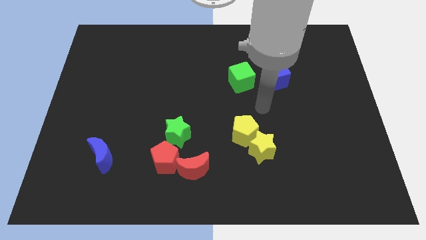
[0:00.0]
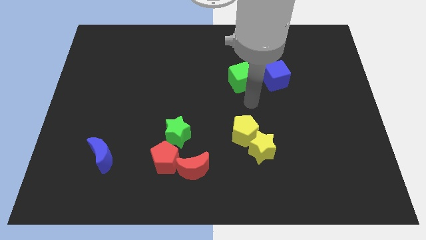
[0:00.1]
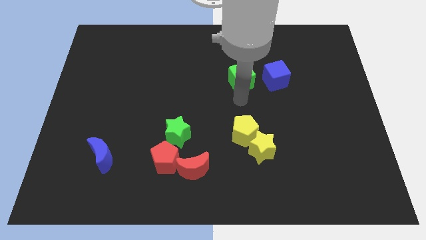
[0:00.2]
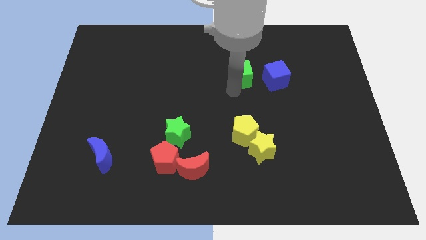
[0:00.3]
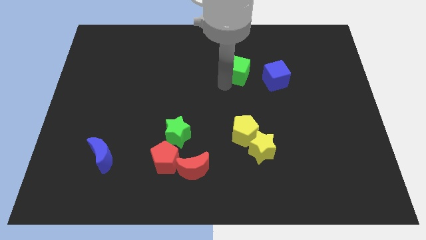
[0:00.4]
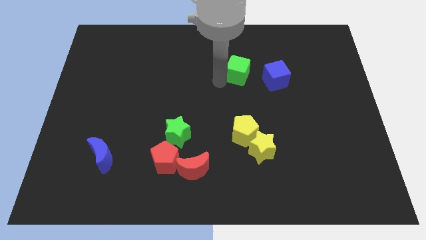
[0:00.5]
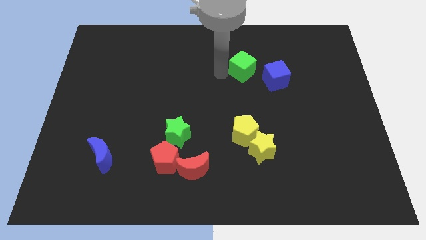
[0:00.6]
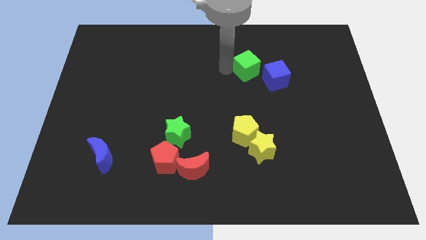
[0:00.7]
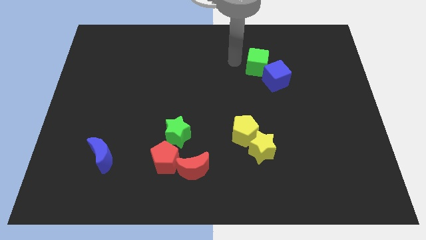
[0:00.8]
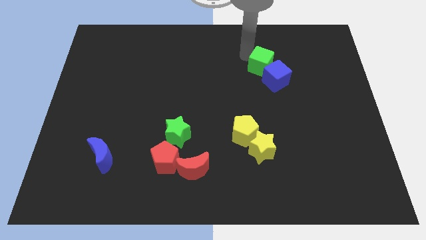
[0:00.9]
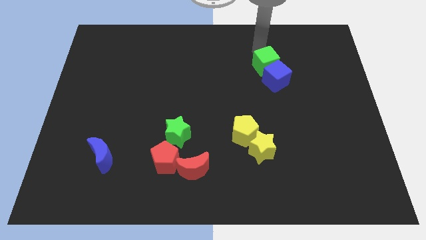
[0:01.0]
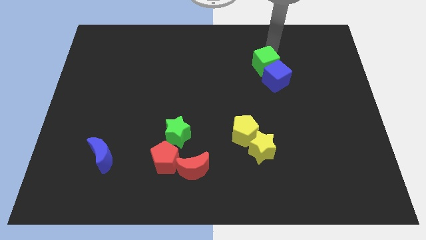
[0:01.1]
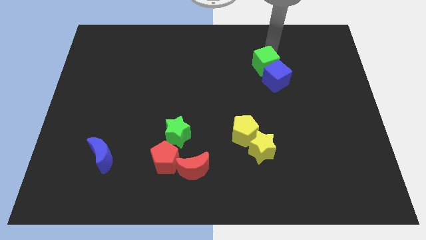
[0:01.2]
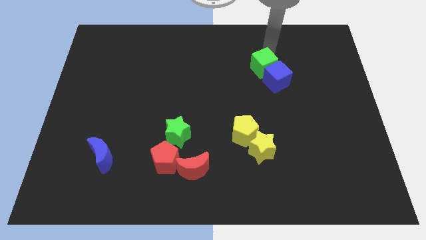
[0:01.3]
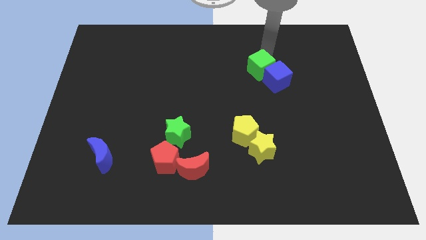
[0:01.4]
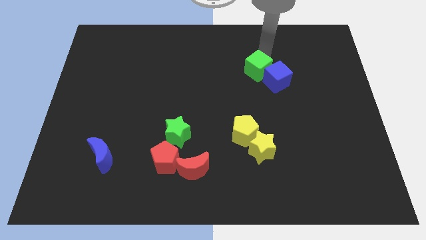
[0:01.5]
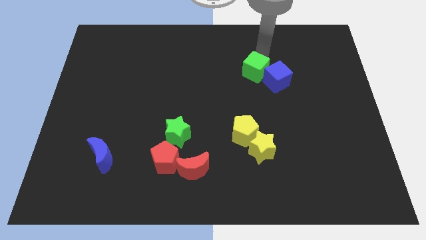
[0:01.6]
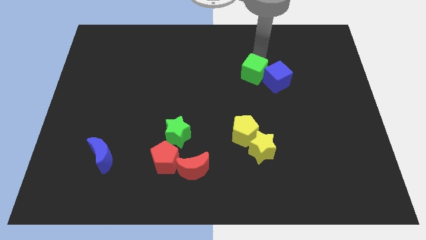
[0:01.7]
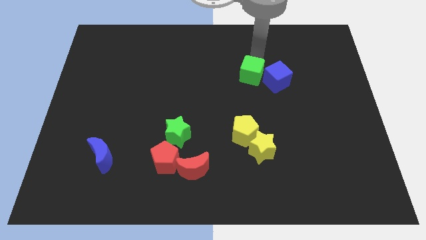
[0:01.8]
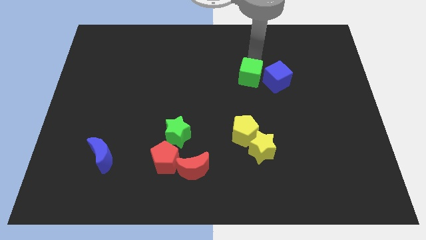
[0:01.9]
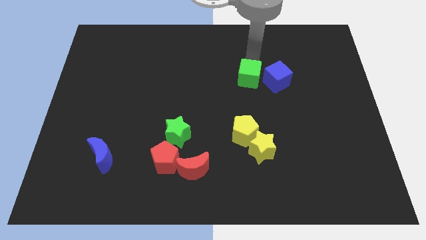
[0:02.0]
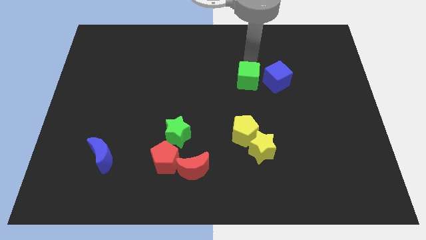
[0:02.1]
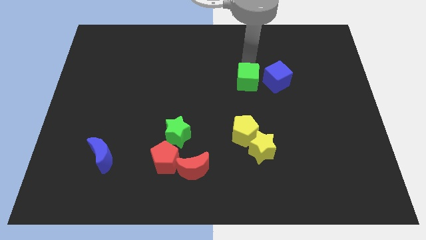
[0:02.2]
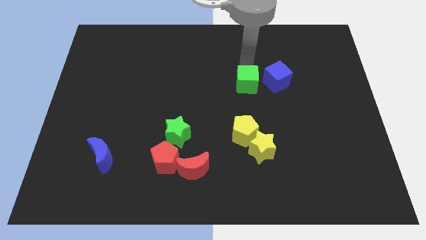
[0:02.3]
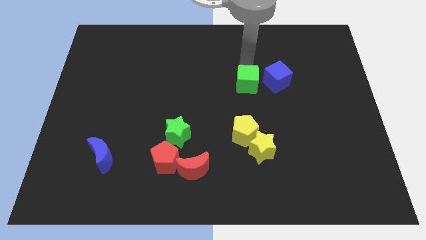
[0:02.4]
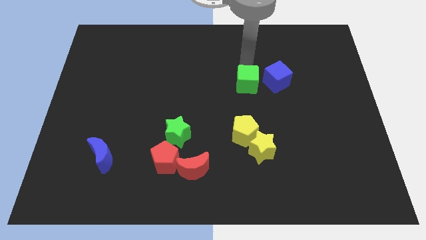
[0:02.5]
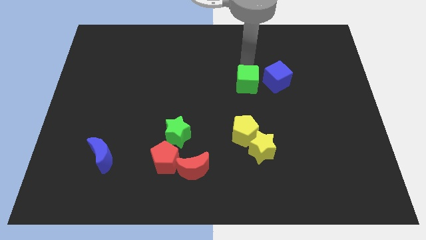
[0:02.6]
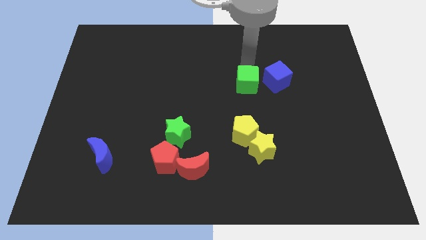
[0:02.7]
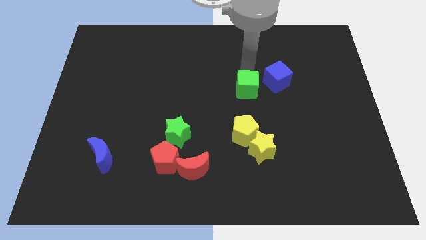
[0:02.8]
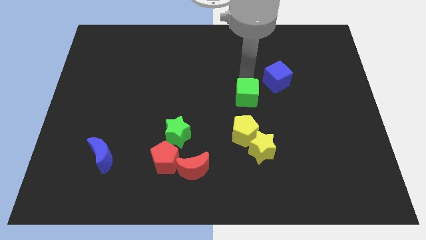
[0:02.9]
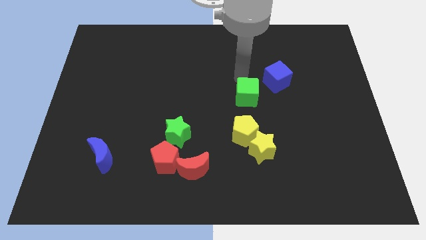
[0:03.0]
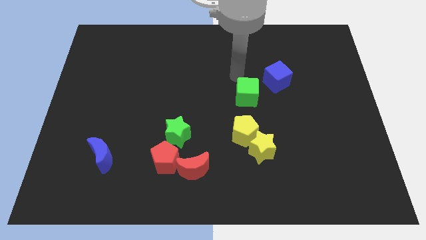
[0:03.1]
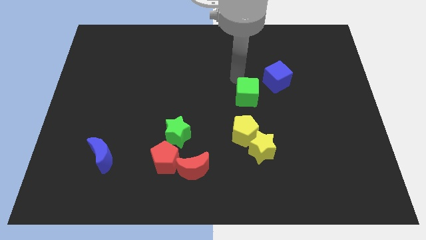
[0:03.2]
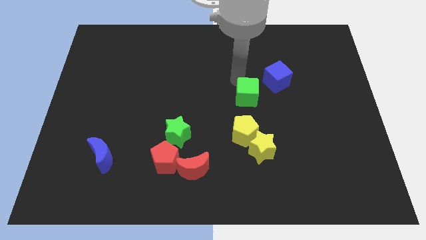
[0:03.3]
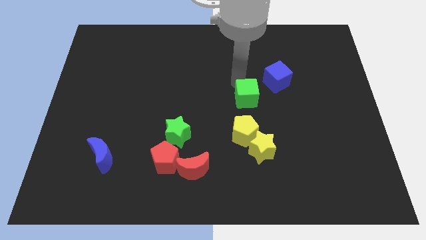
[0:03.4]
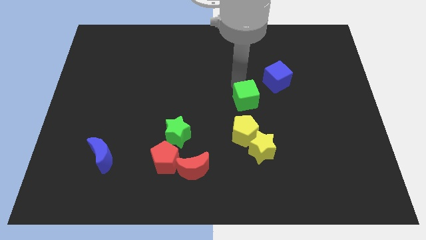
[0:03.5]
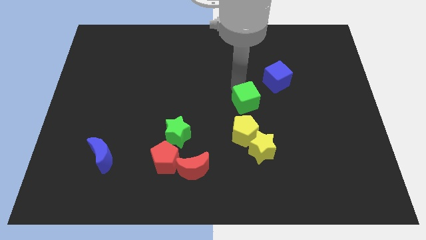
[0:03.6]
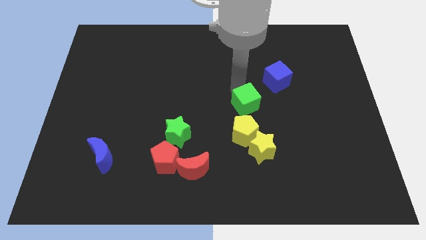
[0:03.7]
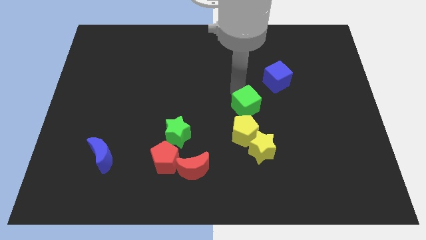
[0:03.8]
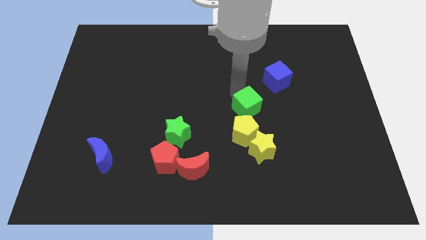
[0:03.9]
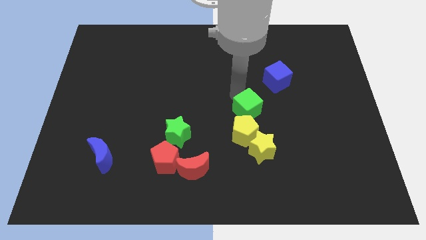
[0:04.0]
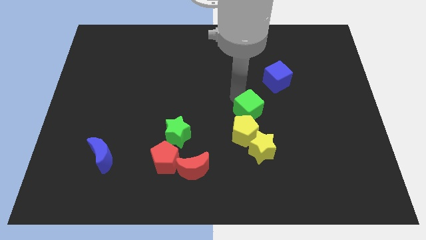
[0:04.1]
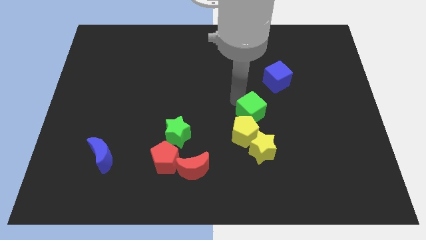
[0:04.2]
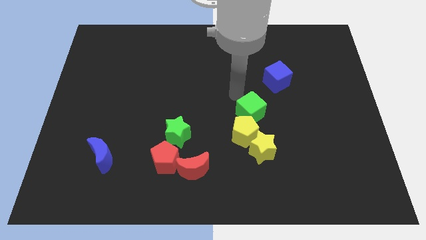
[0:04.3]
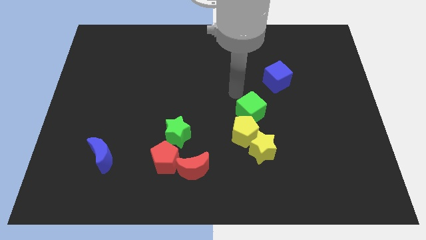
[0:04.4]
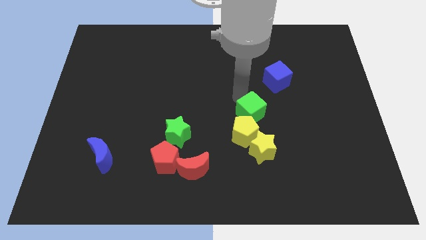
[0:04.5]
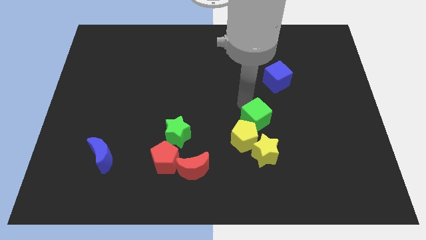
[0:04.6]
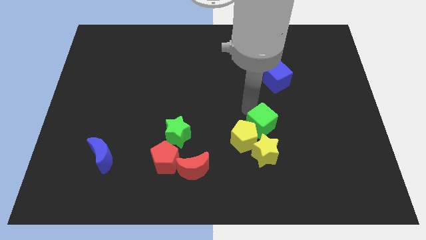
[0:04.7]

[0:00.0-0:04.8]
put the green cube next to the yellow pentagon

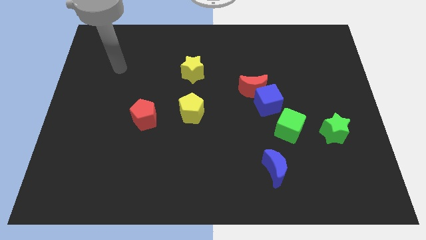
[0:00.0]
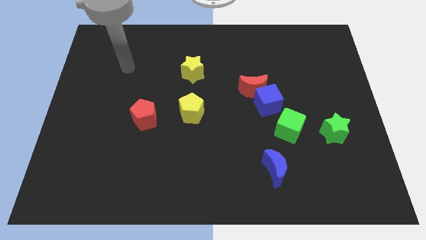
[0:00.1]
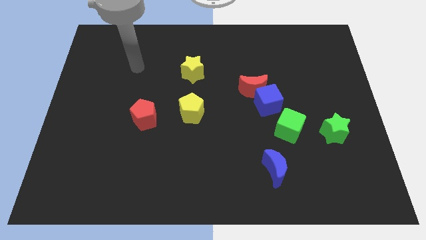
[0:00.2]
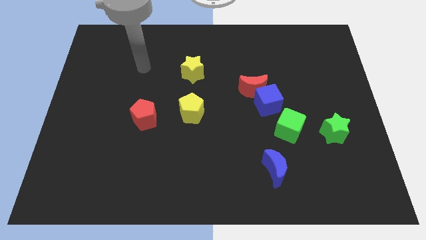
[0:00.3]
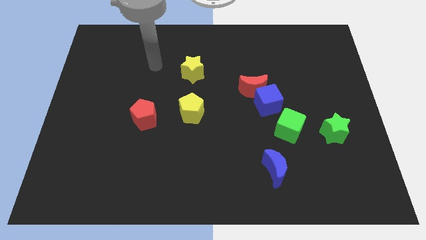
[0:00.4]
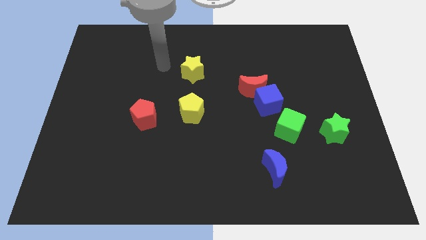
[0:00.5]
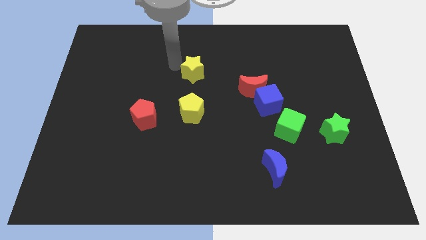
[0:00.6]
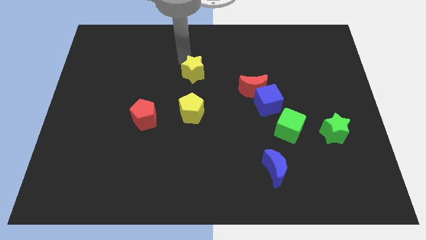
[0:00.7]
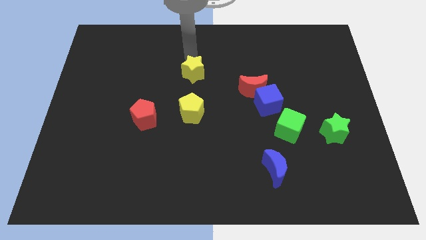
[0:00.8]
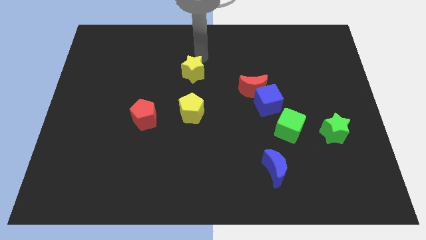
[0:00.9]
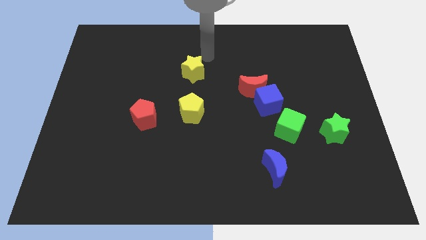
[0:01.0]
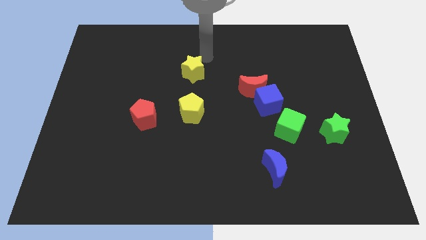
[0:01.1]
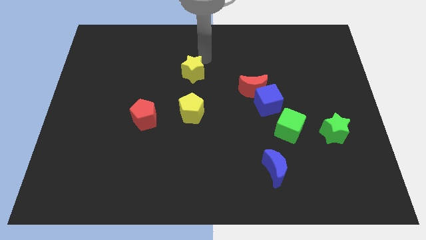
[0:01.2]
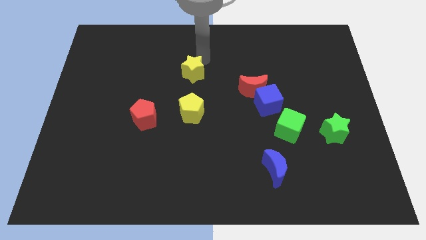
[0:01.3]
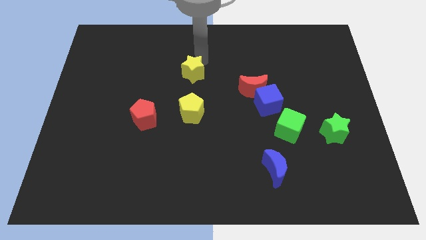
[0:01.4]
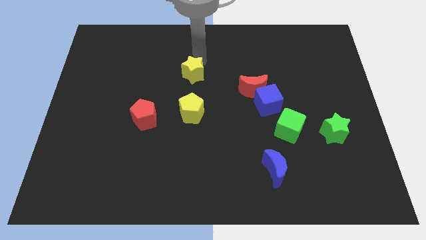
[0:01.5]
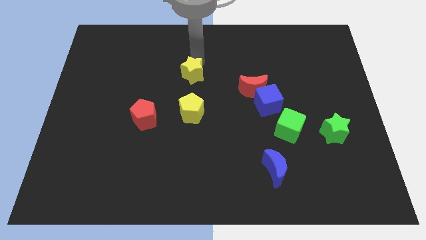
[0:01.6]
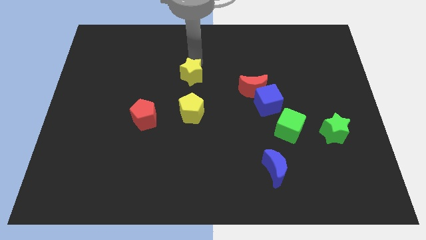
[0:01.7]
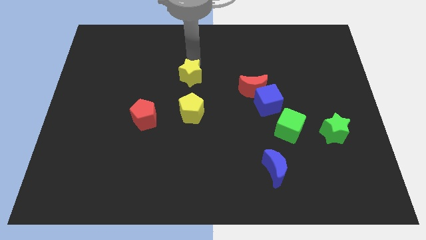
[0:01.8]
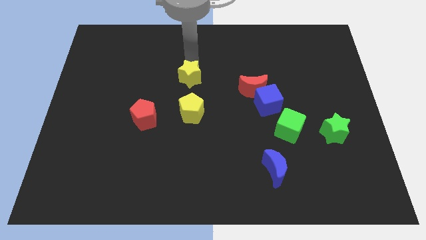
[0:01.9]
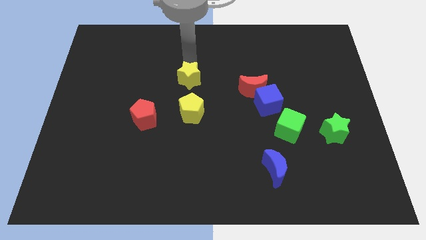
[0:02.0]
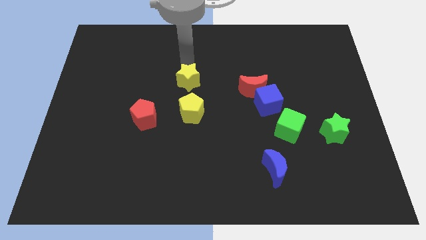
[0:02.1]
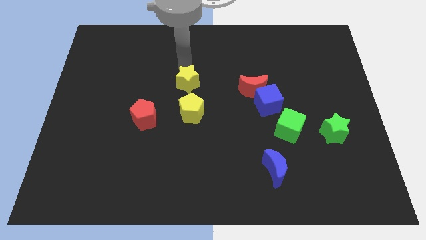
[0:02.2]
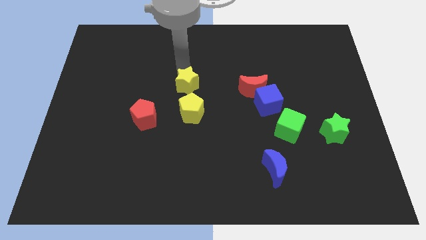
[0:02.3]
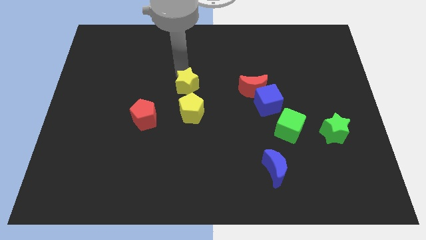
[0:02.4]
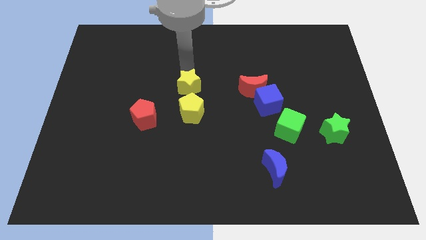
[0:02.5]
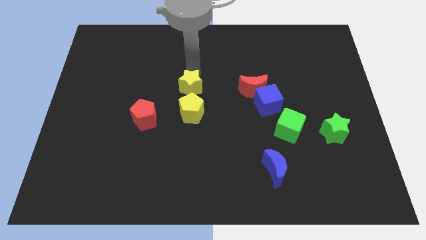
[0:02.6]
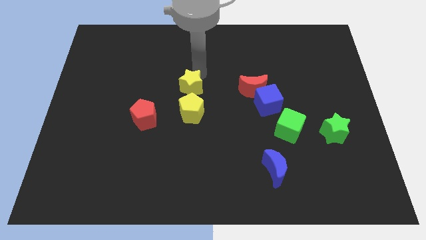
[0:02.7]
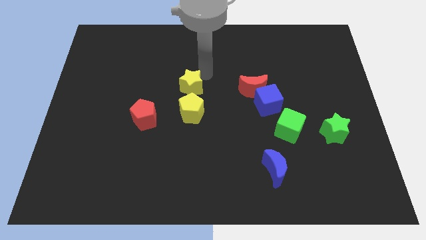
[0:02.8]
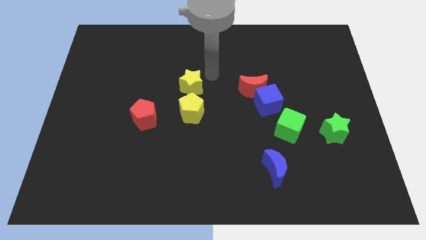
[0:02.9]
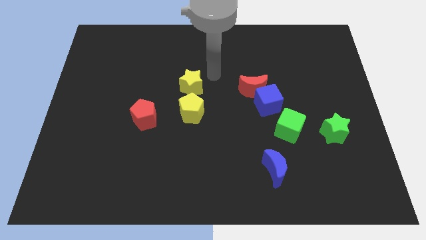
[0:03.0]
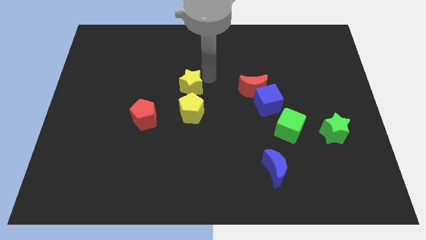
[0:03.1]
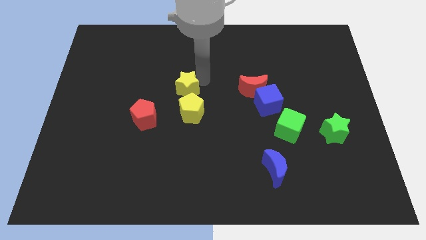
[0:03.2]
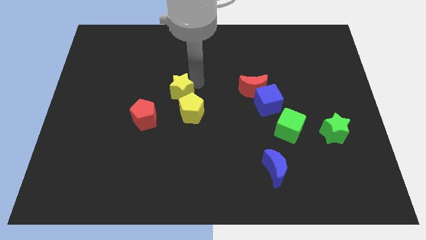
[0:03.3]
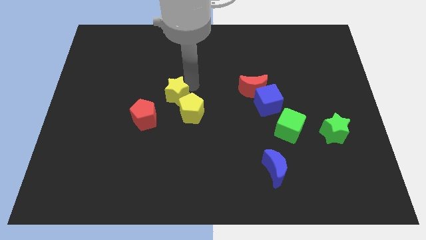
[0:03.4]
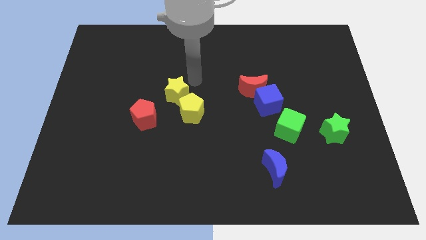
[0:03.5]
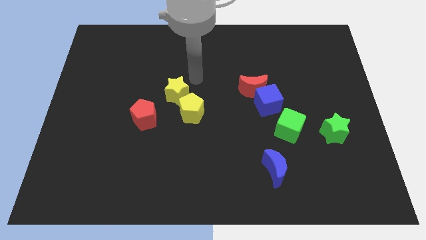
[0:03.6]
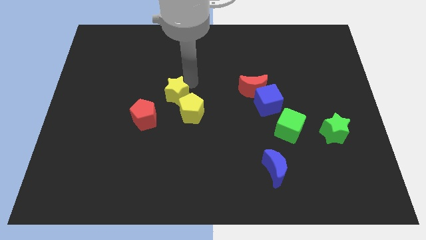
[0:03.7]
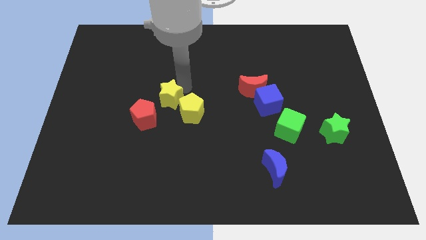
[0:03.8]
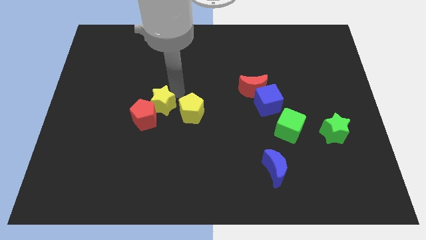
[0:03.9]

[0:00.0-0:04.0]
put the yellow star close to the red pentagon
